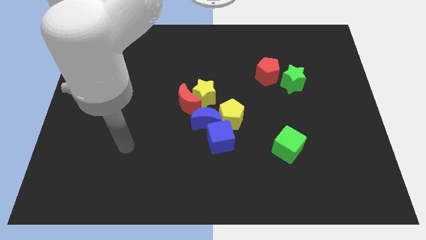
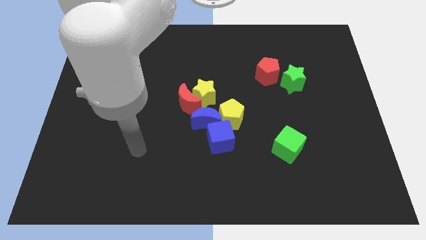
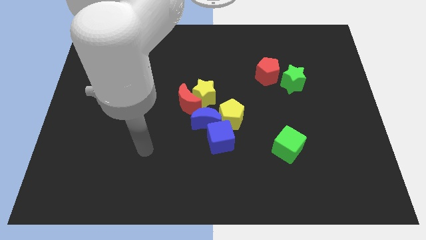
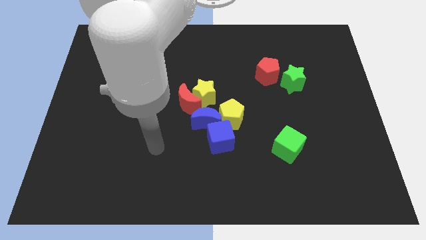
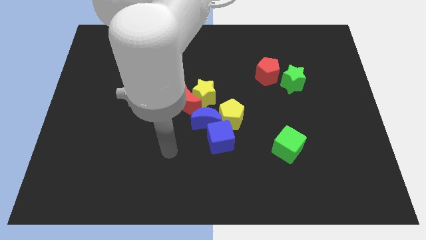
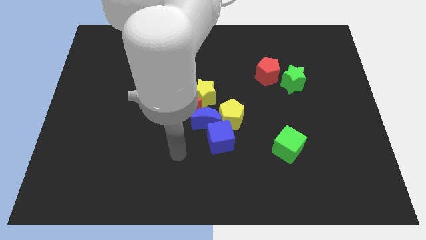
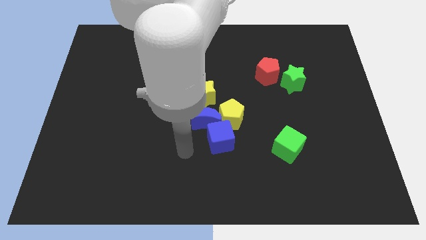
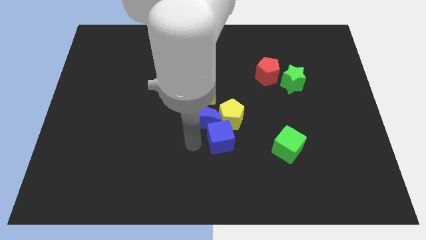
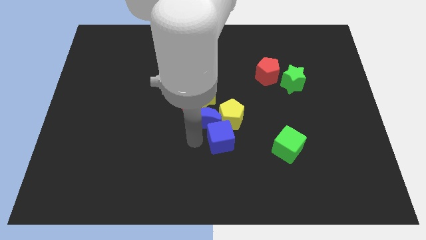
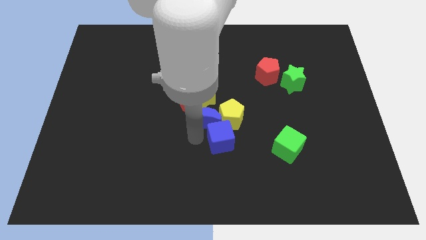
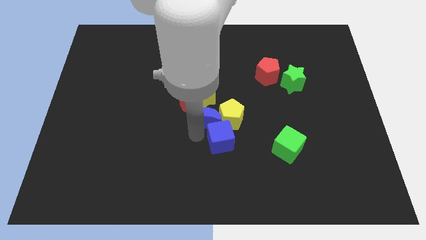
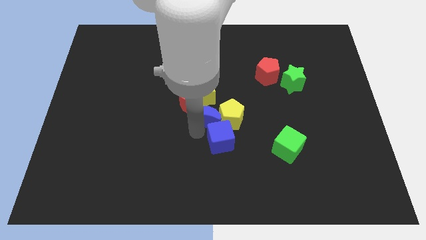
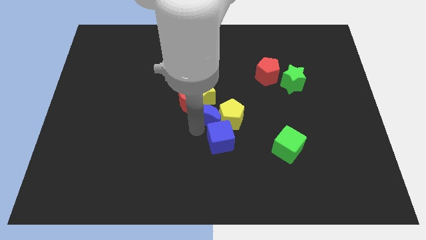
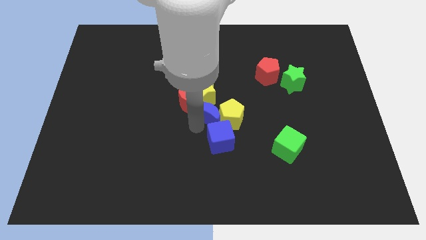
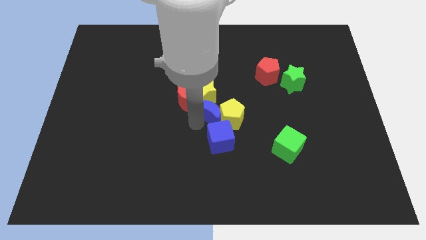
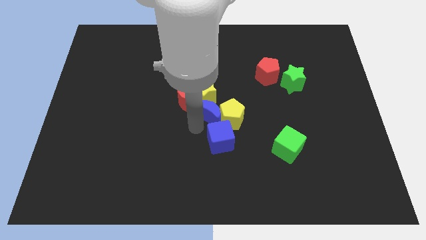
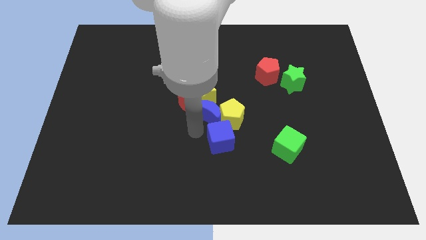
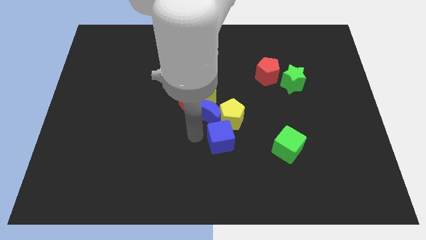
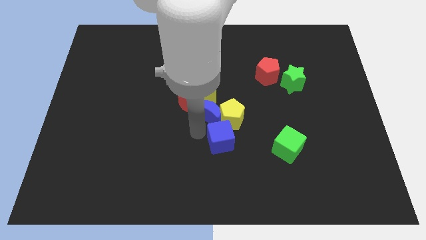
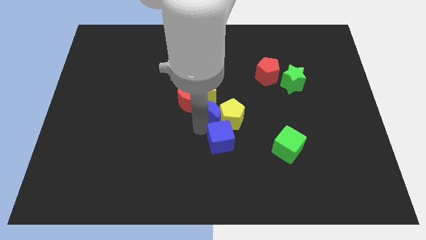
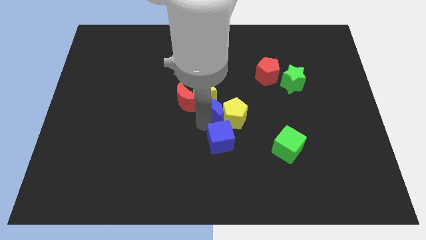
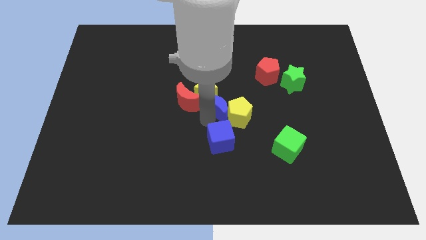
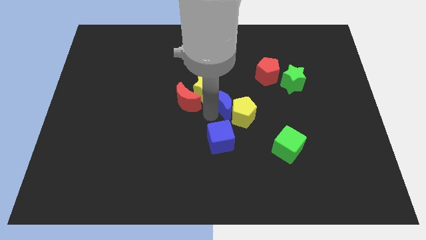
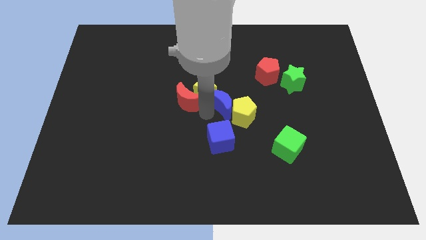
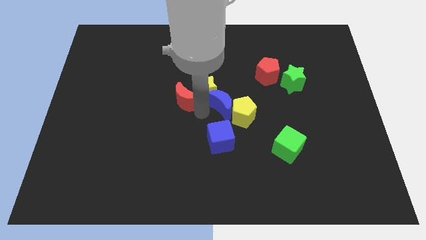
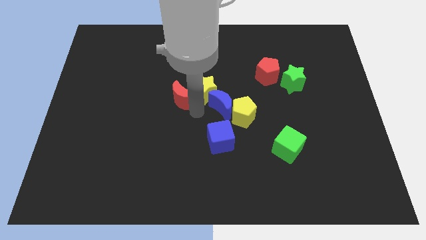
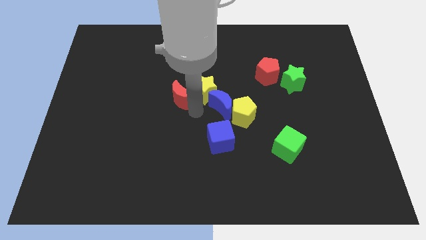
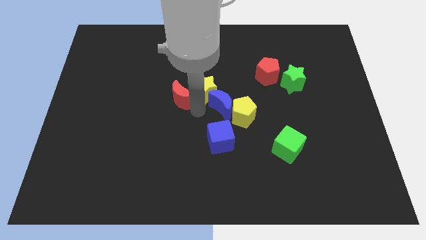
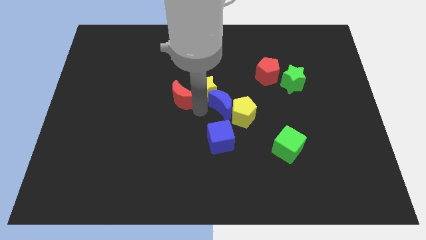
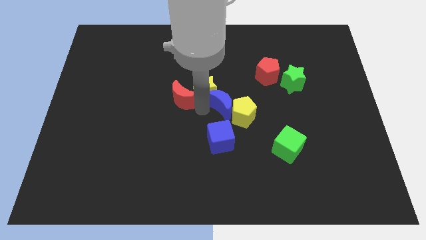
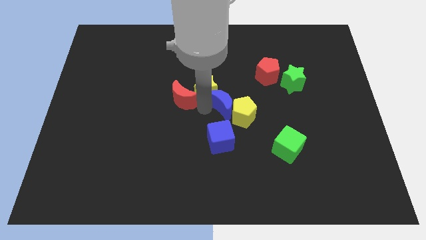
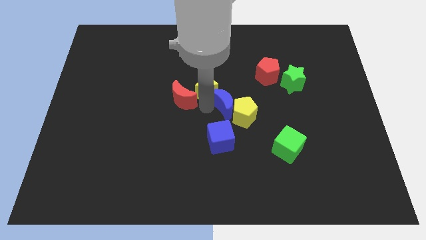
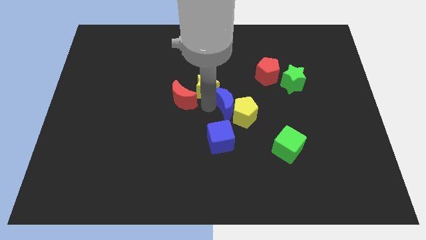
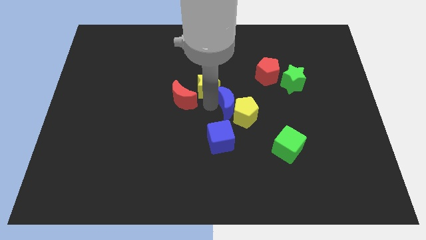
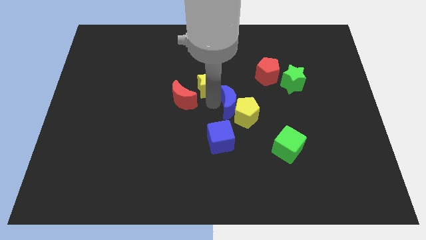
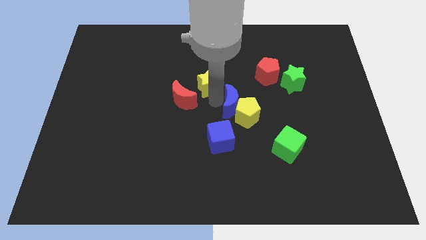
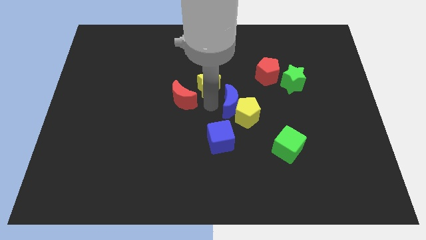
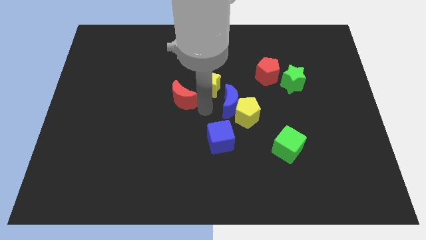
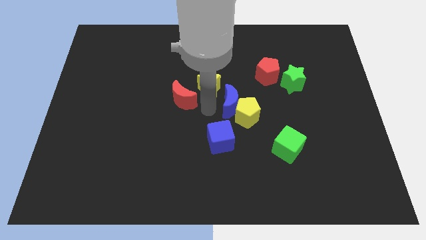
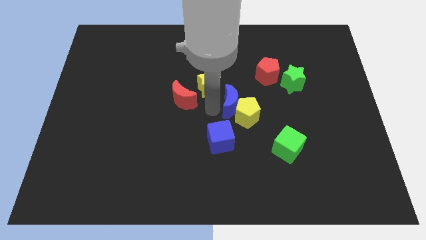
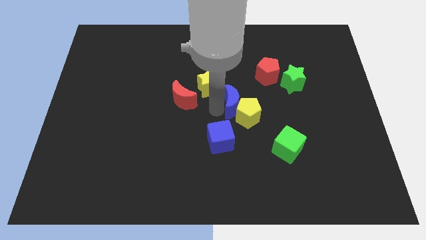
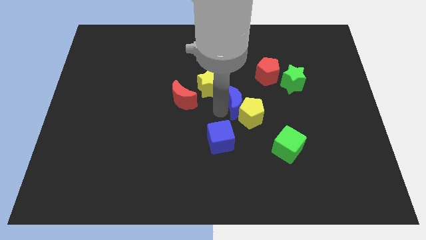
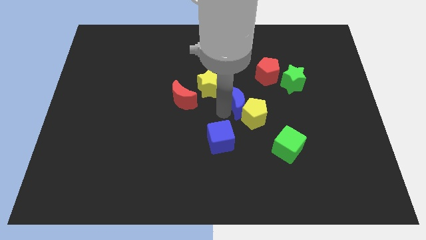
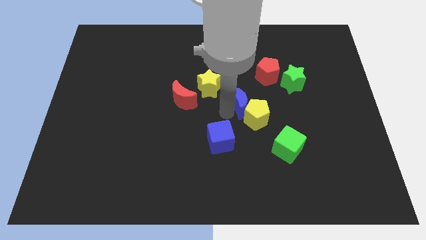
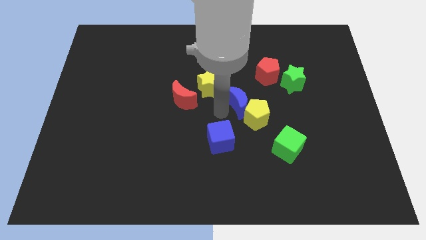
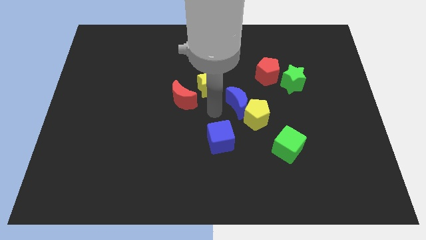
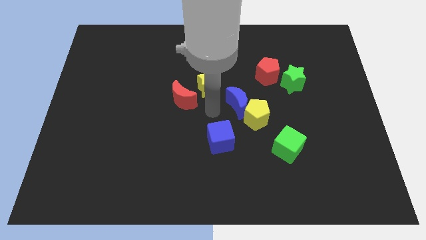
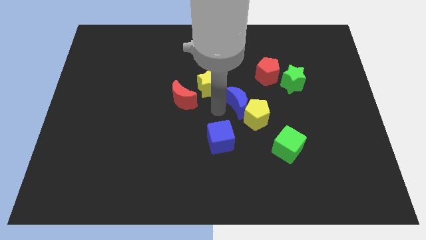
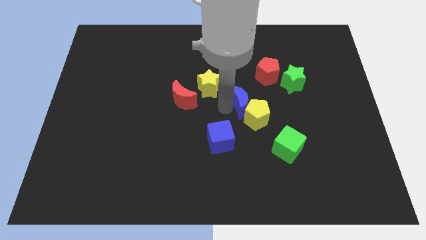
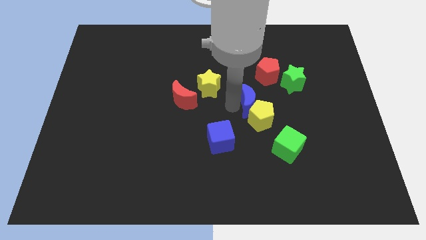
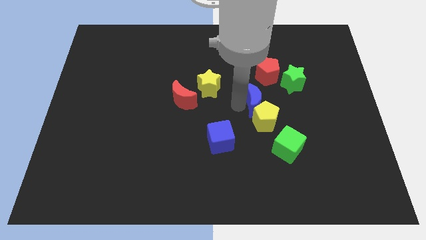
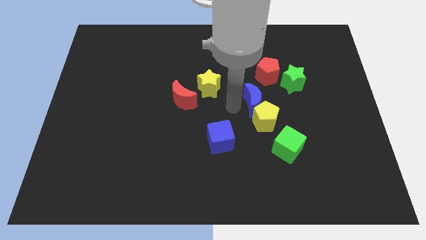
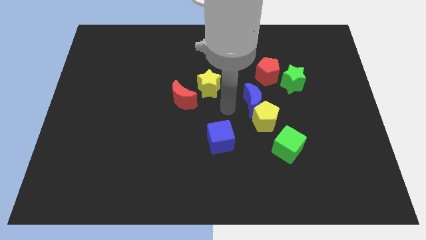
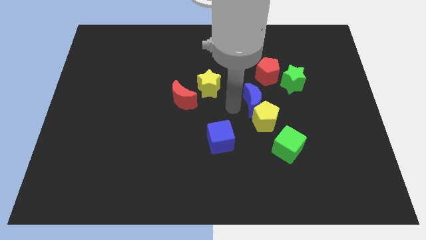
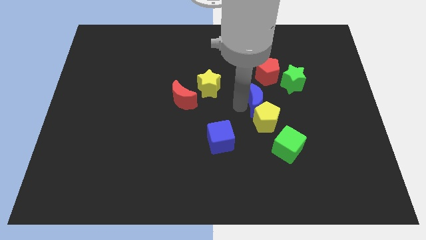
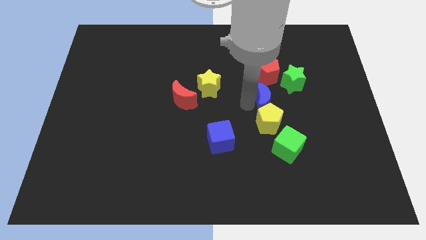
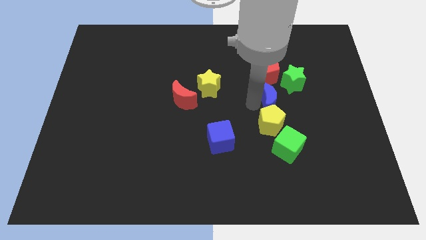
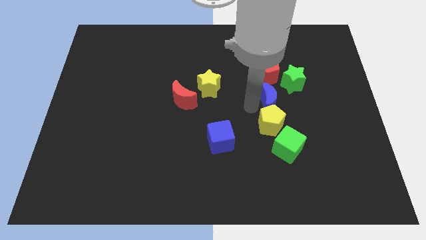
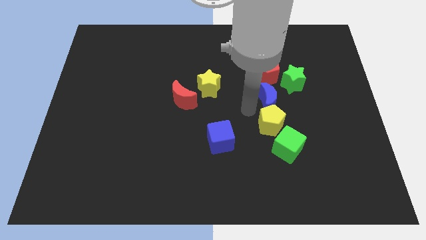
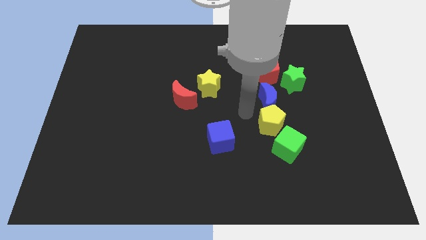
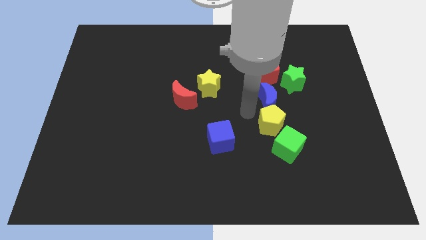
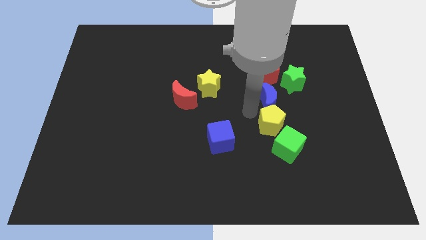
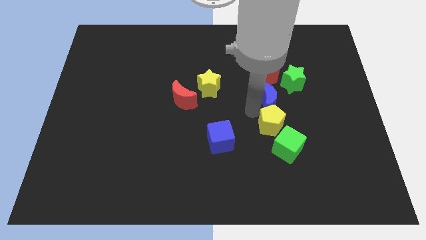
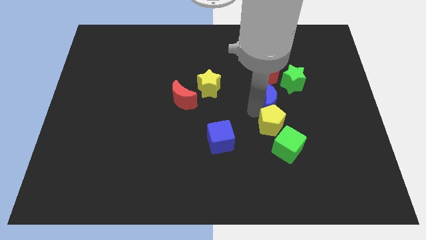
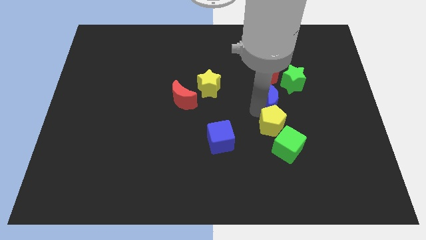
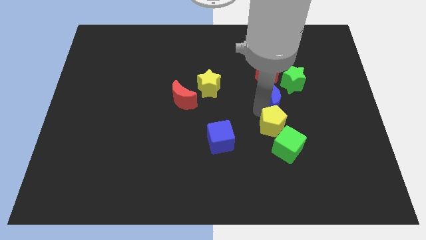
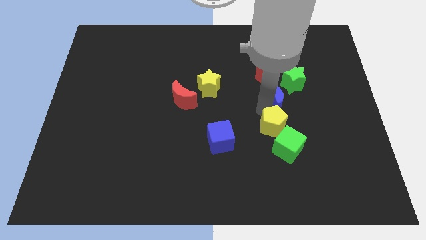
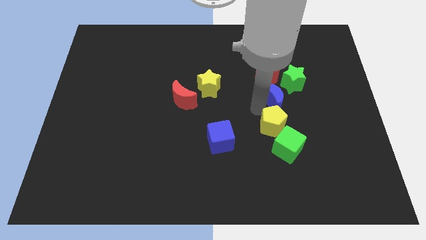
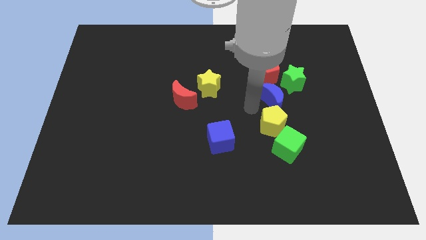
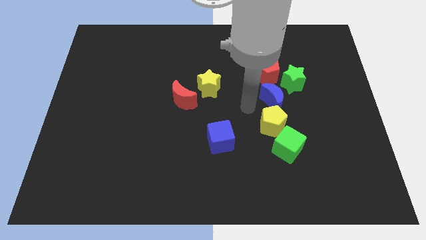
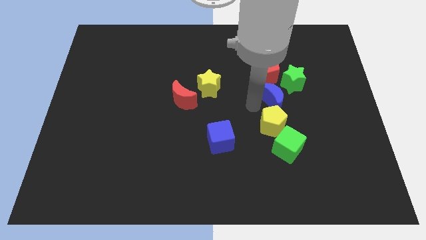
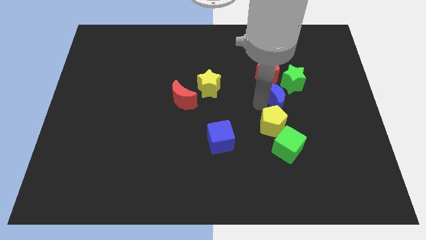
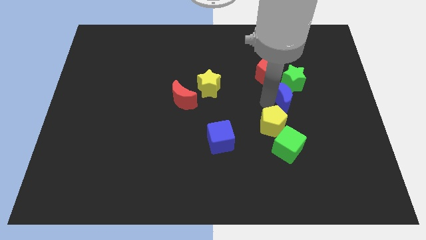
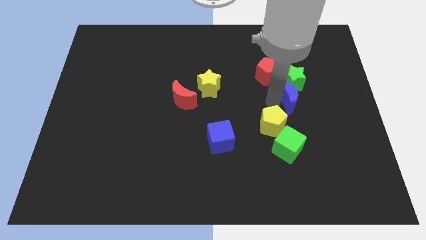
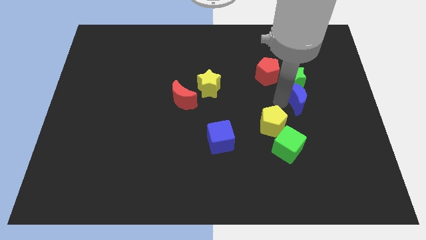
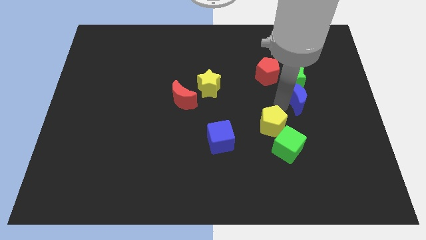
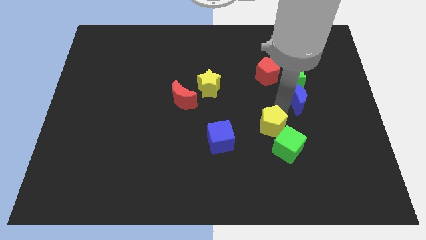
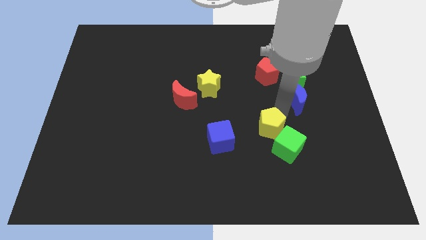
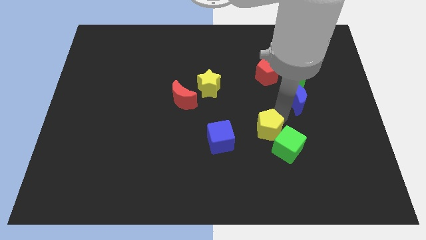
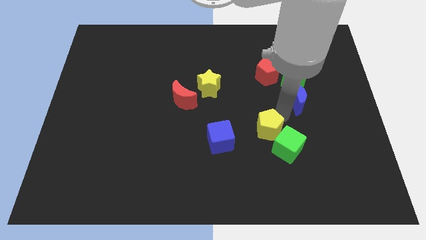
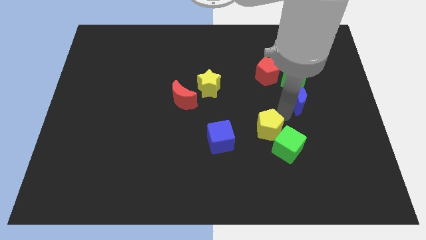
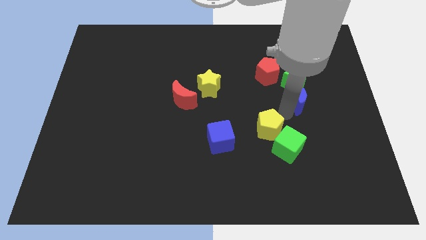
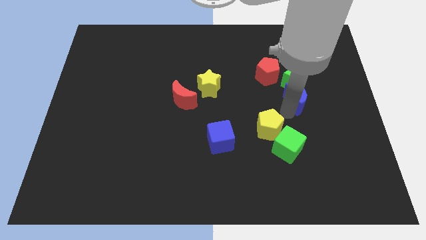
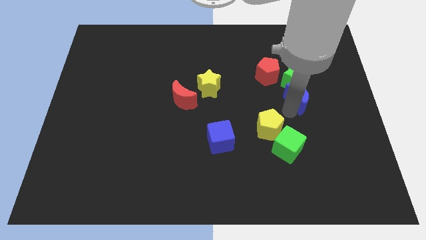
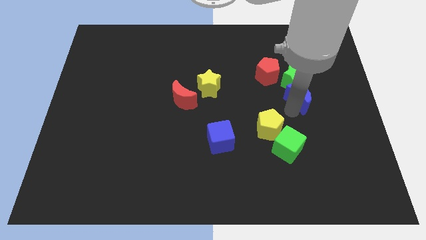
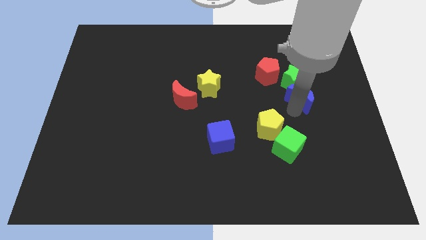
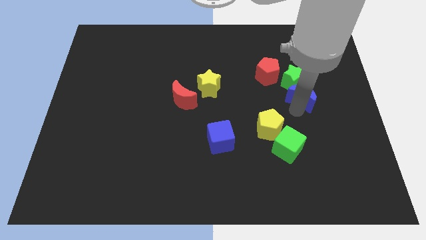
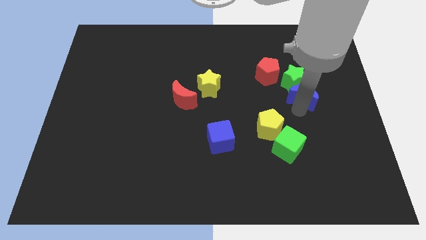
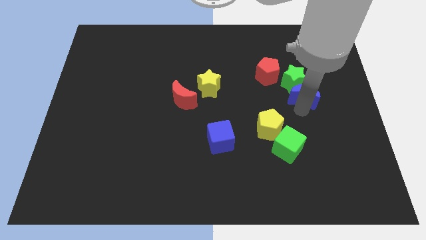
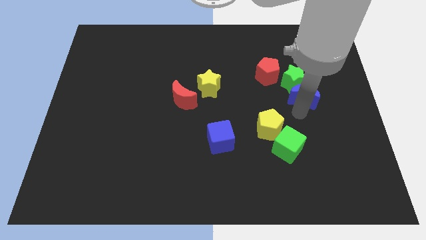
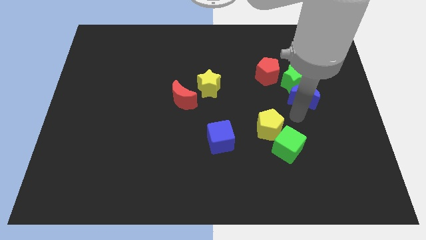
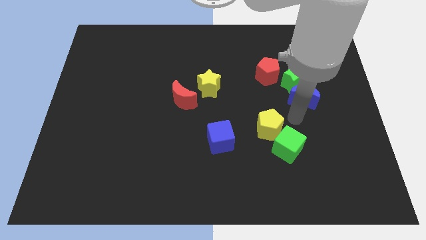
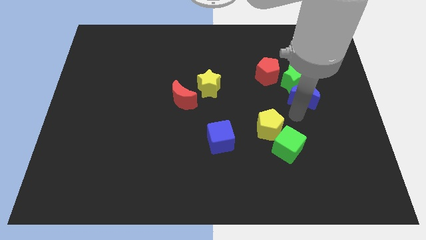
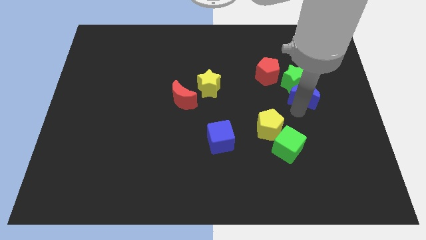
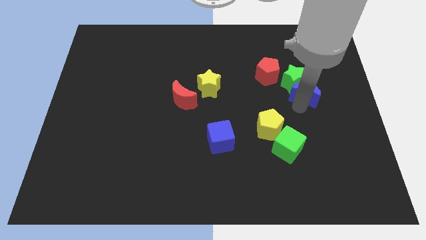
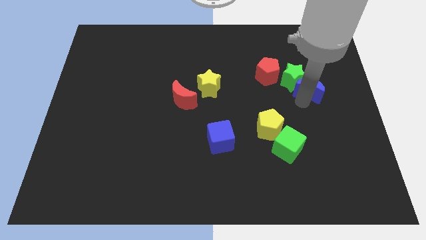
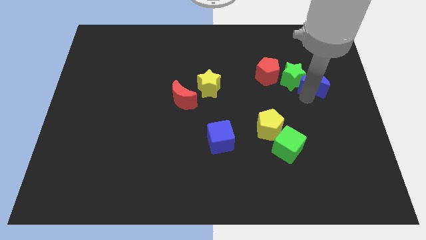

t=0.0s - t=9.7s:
slide the blue moon just right of the red pentagon
